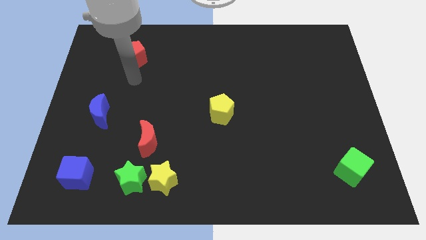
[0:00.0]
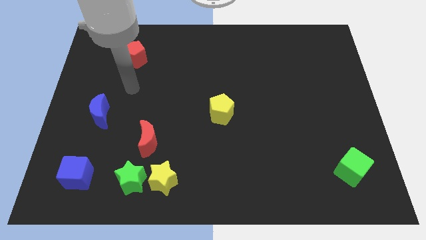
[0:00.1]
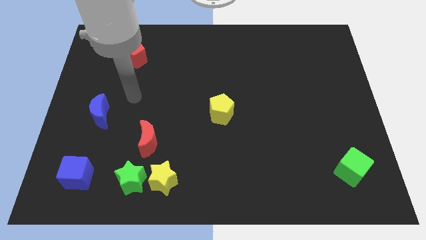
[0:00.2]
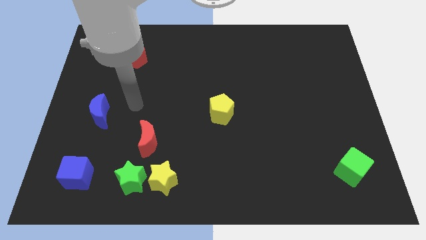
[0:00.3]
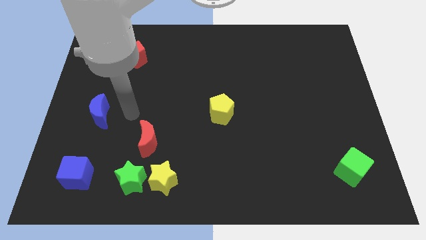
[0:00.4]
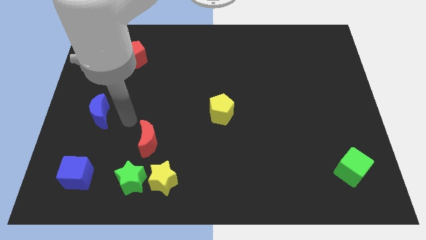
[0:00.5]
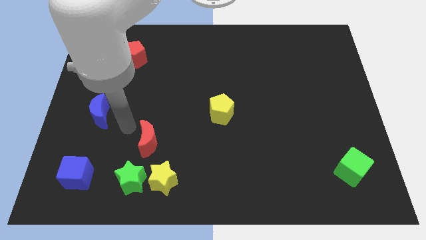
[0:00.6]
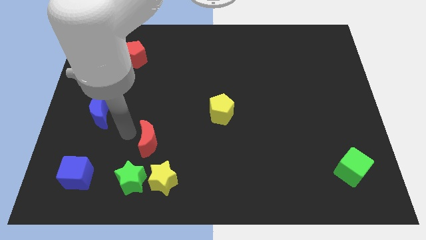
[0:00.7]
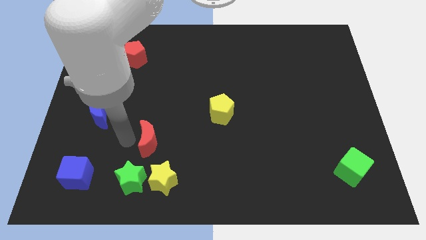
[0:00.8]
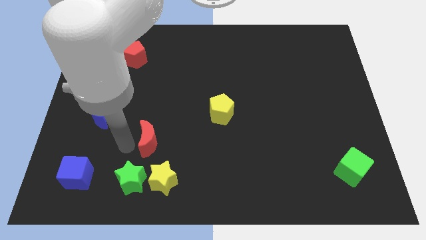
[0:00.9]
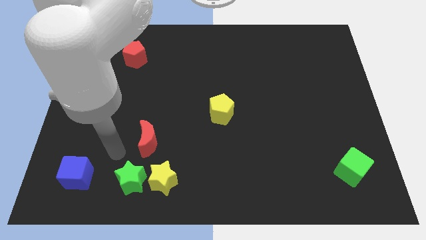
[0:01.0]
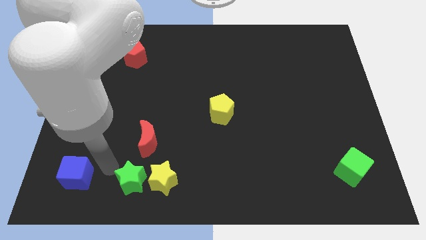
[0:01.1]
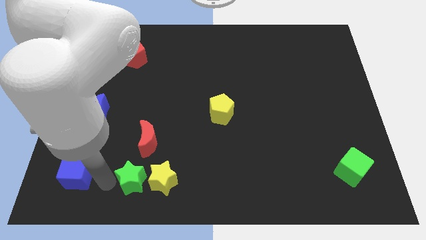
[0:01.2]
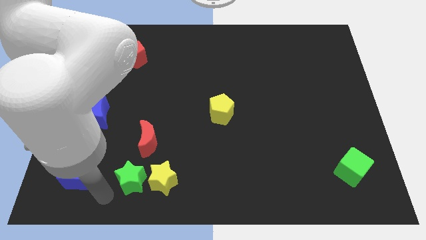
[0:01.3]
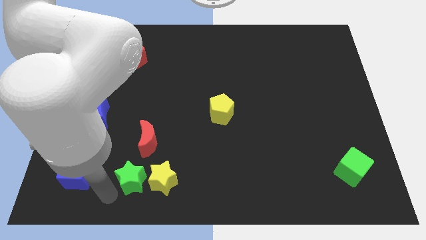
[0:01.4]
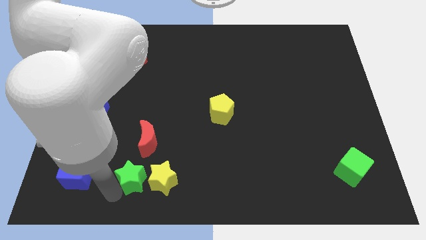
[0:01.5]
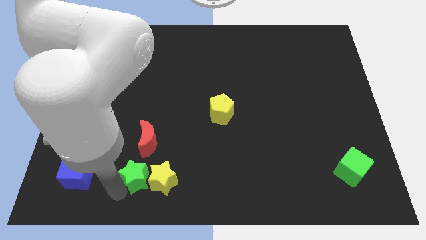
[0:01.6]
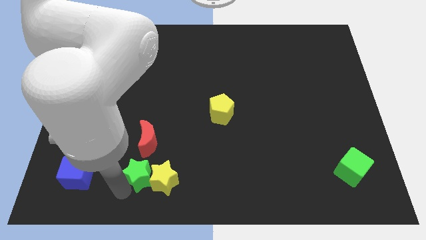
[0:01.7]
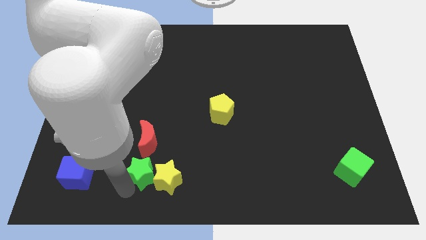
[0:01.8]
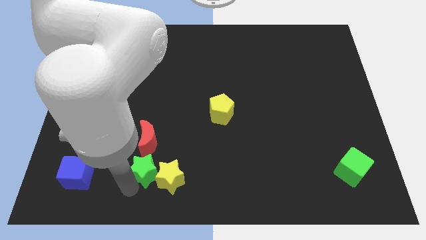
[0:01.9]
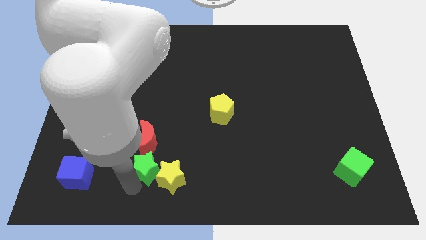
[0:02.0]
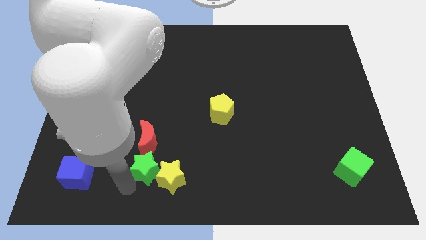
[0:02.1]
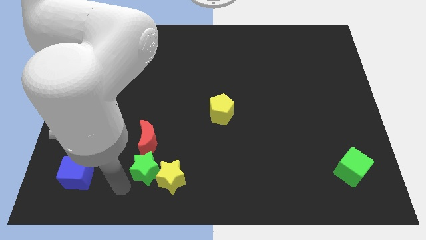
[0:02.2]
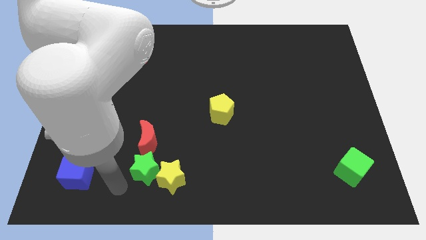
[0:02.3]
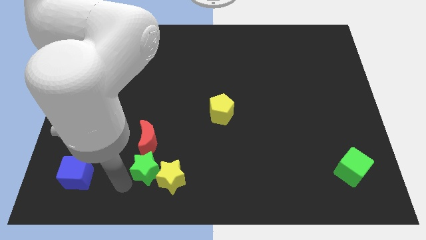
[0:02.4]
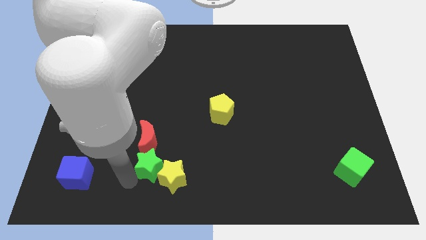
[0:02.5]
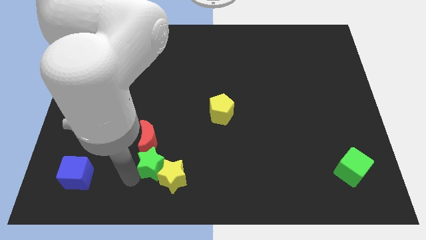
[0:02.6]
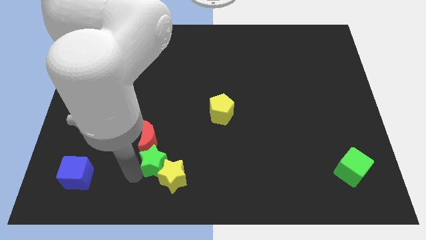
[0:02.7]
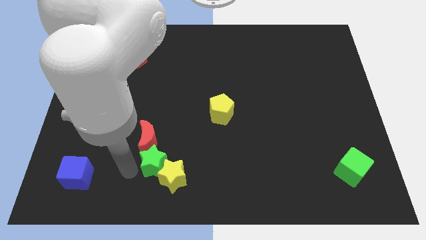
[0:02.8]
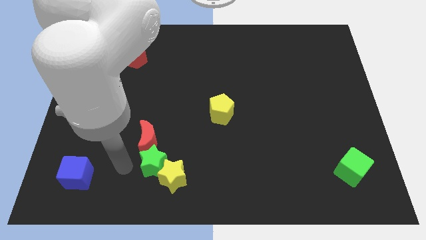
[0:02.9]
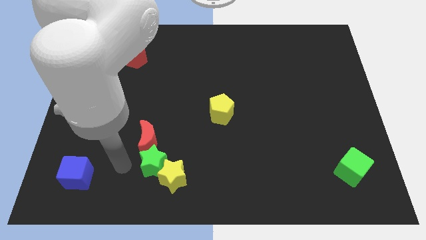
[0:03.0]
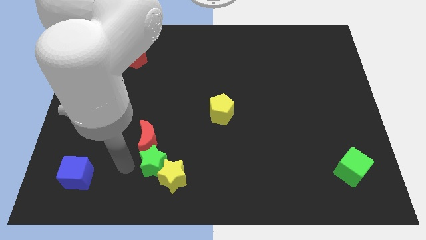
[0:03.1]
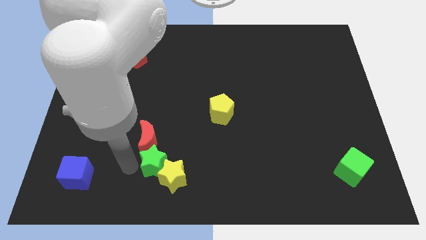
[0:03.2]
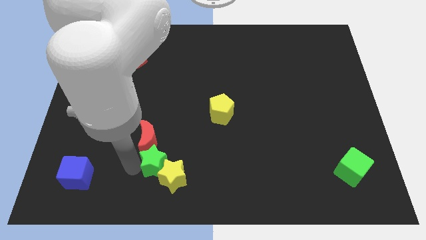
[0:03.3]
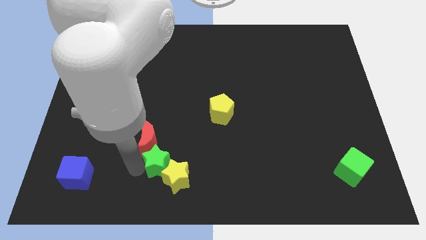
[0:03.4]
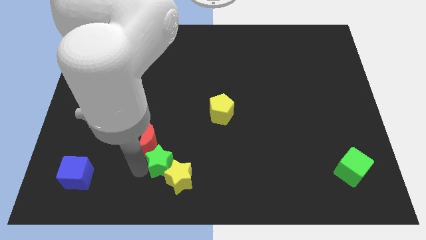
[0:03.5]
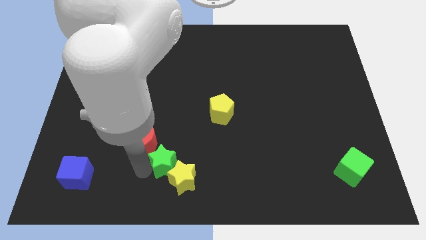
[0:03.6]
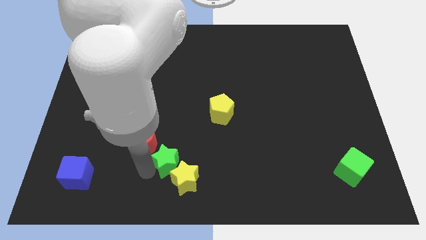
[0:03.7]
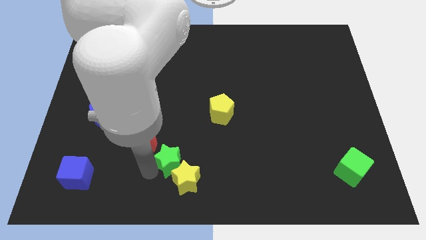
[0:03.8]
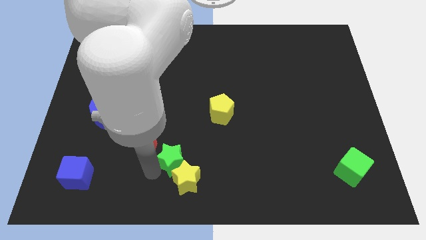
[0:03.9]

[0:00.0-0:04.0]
slightly push the green star right

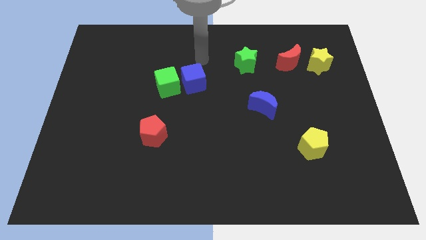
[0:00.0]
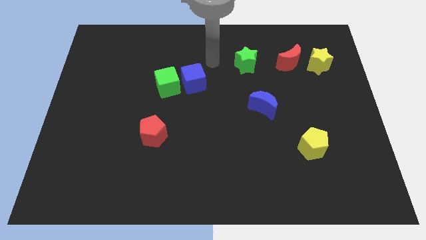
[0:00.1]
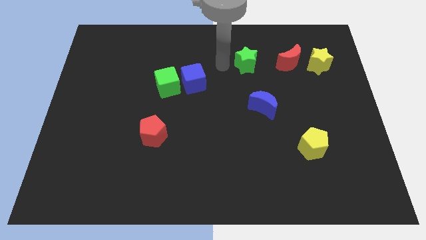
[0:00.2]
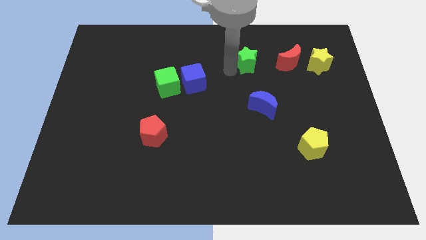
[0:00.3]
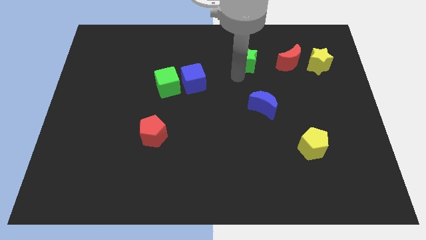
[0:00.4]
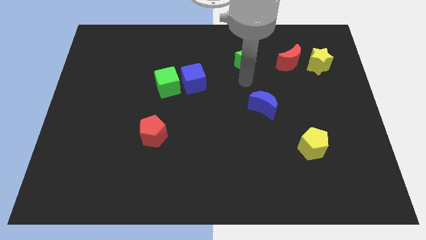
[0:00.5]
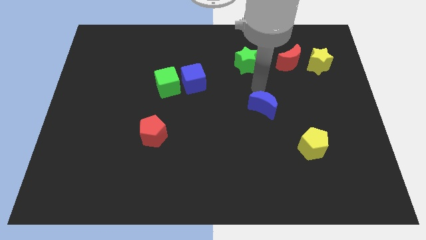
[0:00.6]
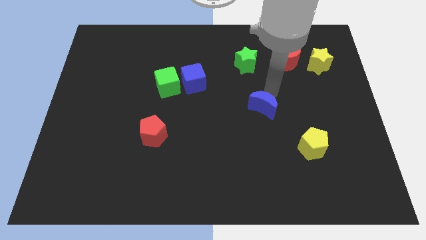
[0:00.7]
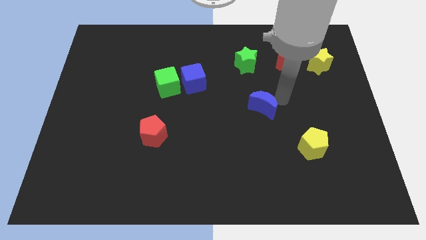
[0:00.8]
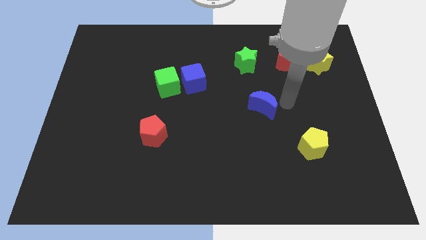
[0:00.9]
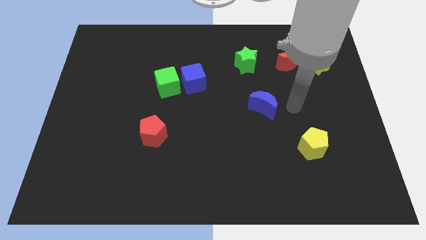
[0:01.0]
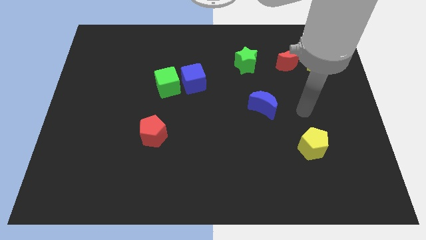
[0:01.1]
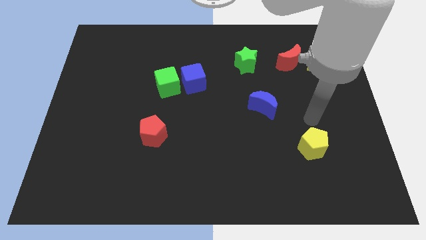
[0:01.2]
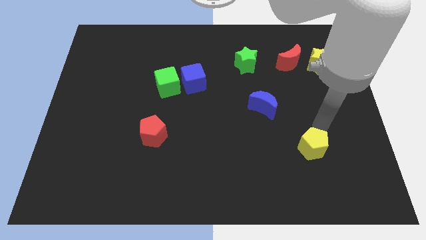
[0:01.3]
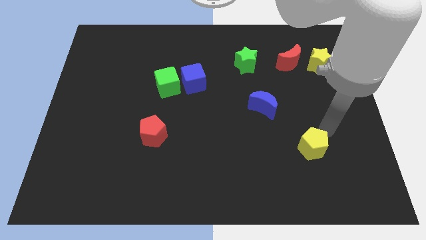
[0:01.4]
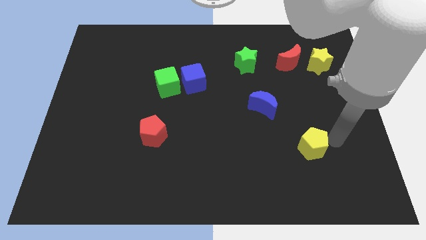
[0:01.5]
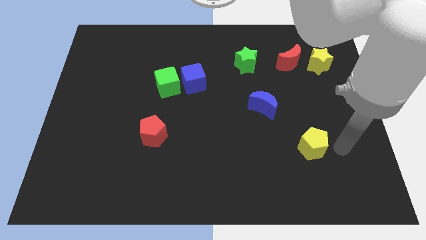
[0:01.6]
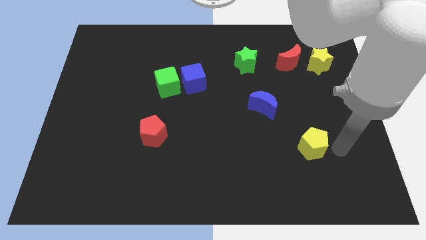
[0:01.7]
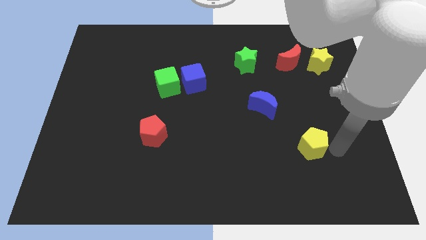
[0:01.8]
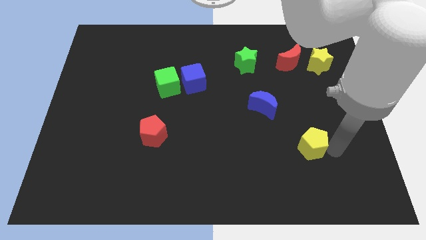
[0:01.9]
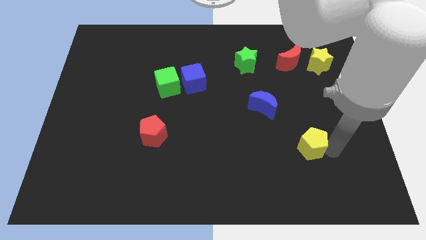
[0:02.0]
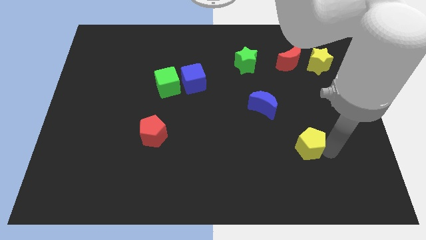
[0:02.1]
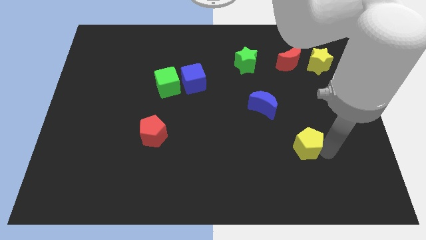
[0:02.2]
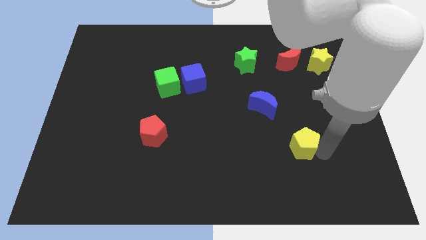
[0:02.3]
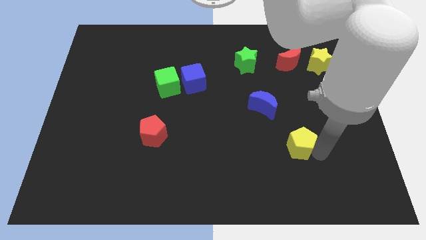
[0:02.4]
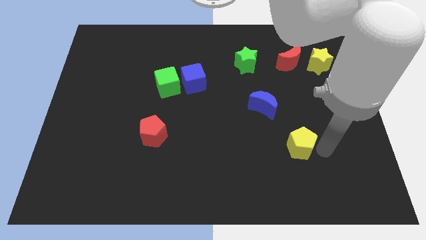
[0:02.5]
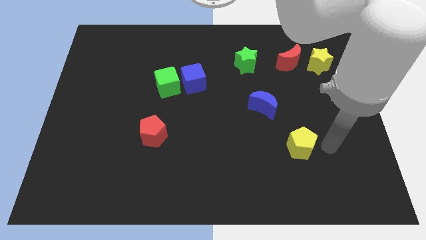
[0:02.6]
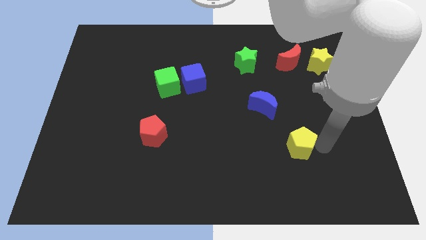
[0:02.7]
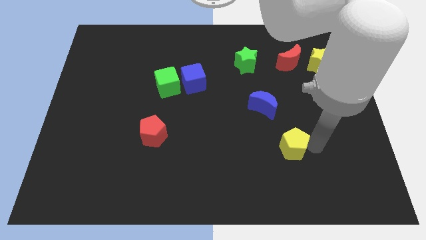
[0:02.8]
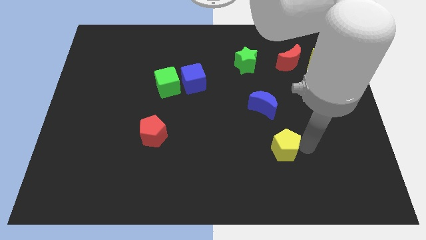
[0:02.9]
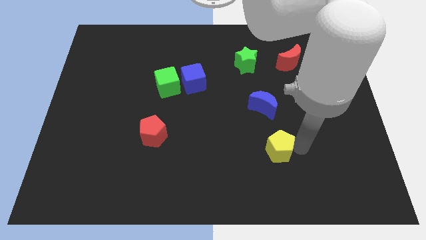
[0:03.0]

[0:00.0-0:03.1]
slightly move the yellow pentagon to the left

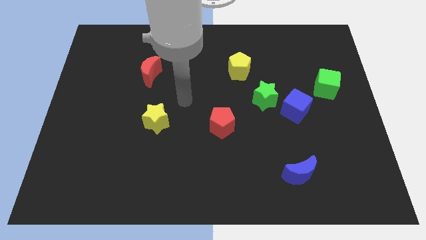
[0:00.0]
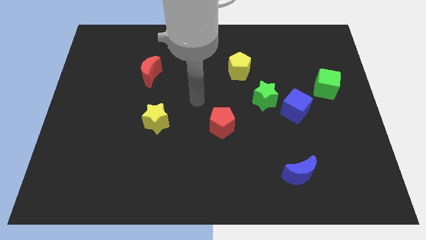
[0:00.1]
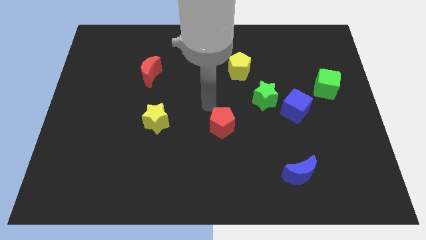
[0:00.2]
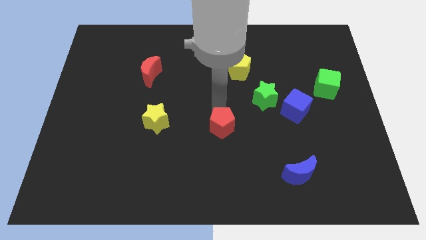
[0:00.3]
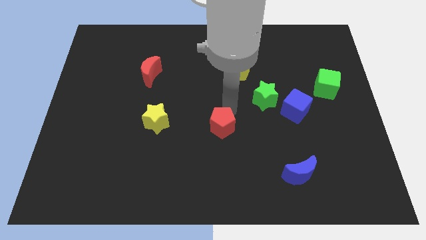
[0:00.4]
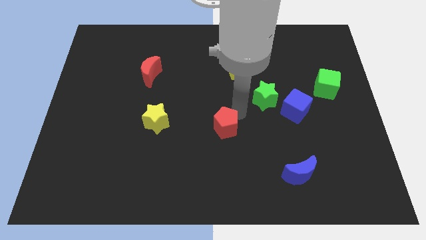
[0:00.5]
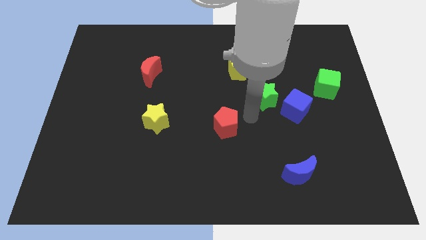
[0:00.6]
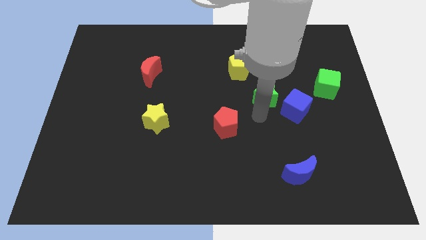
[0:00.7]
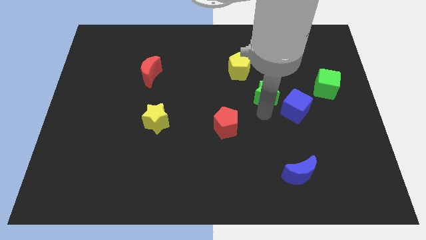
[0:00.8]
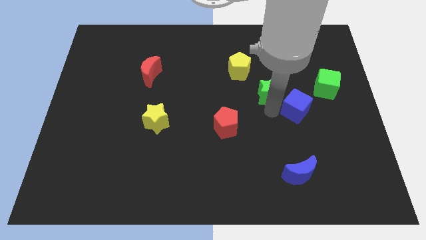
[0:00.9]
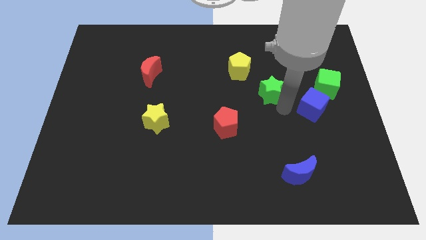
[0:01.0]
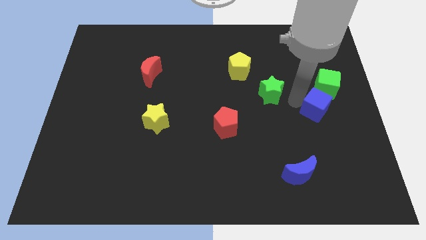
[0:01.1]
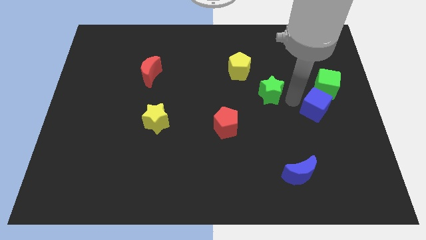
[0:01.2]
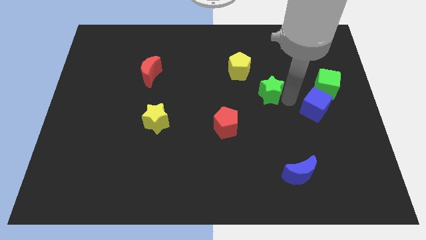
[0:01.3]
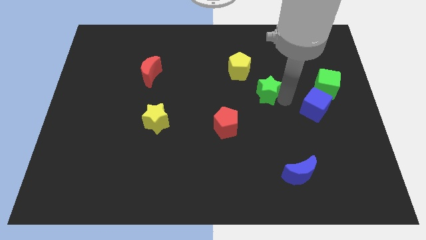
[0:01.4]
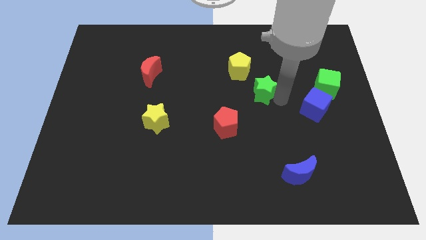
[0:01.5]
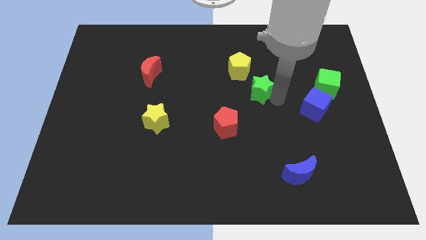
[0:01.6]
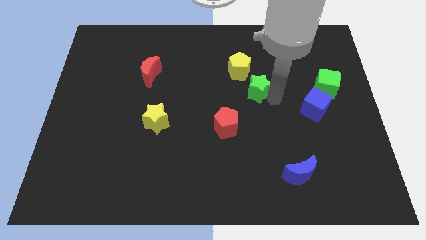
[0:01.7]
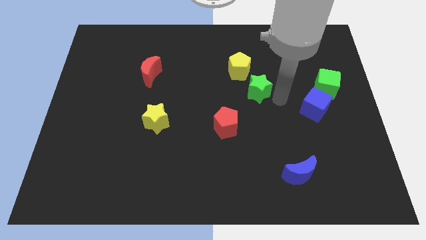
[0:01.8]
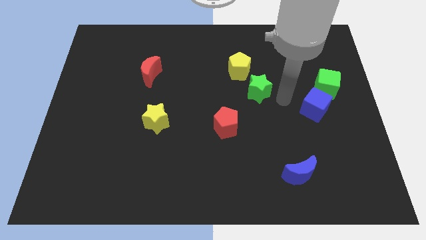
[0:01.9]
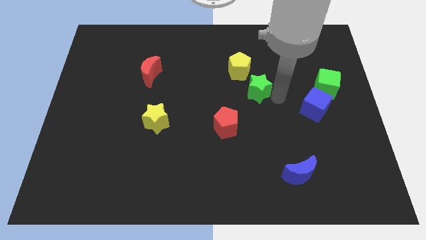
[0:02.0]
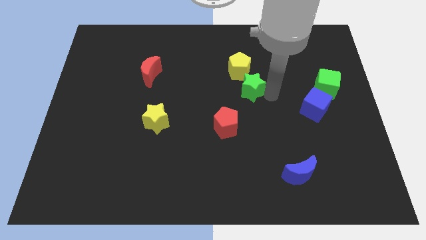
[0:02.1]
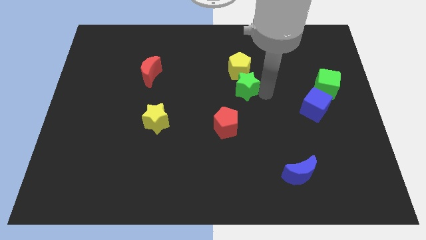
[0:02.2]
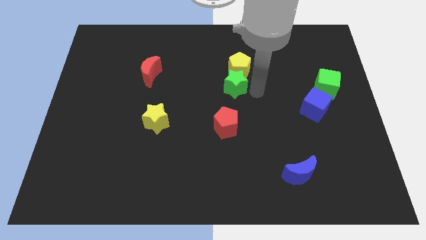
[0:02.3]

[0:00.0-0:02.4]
slightly move the green star upwards and then left
